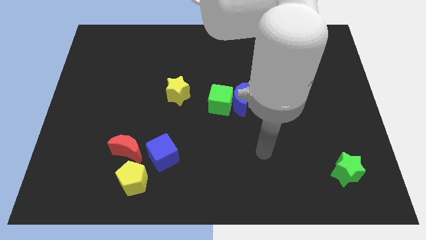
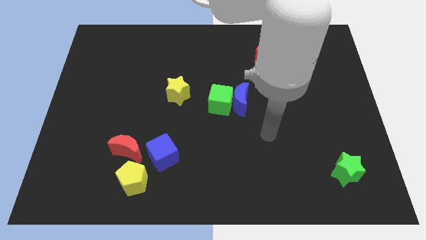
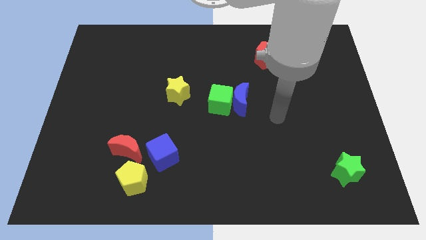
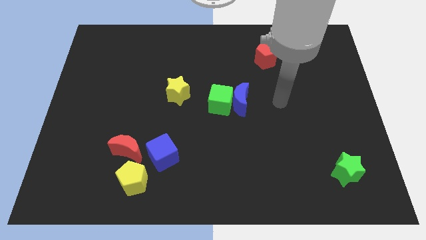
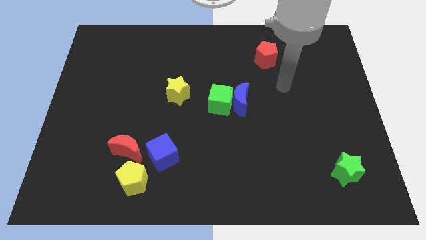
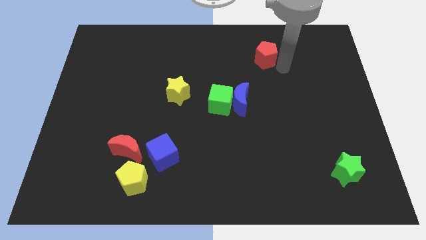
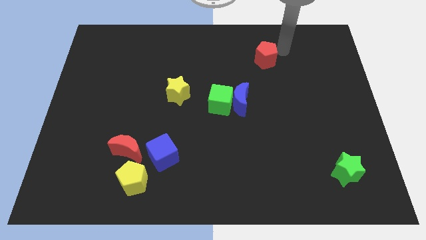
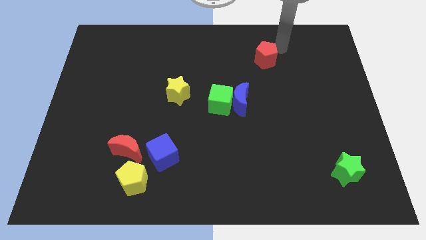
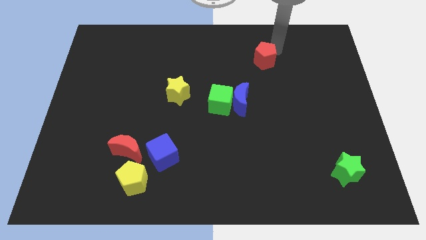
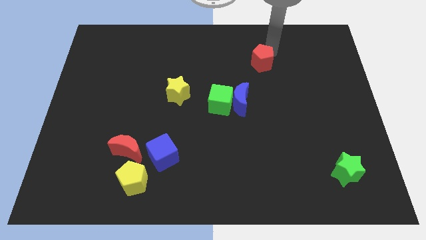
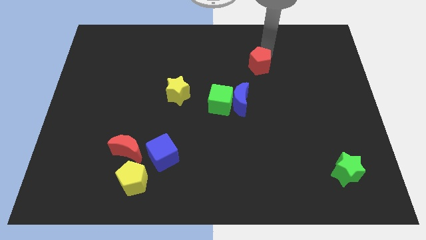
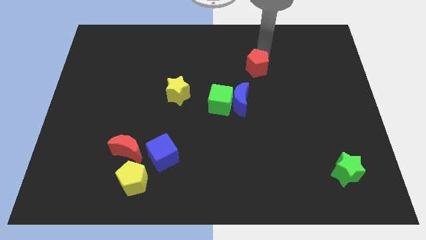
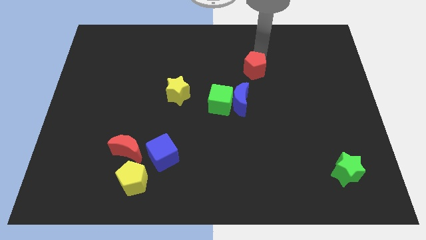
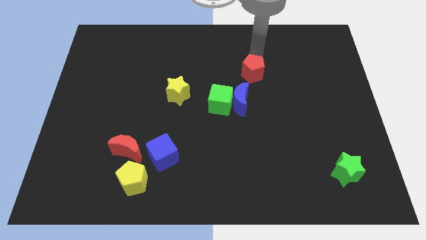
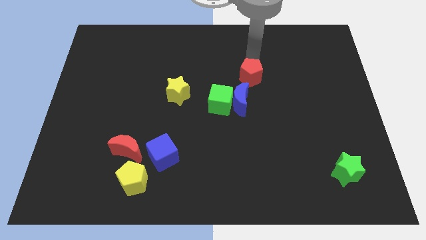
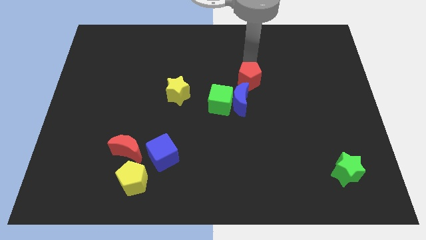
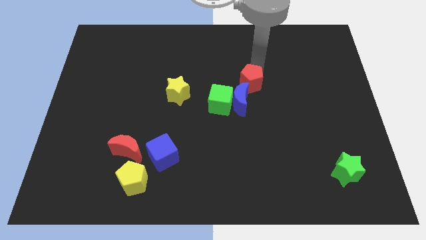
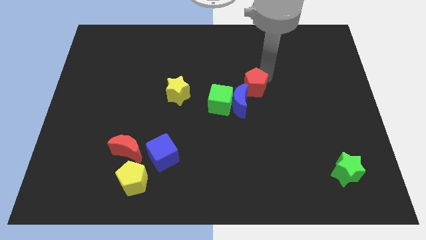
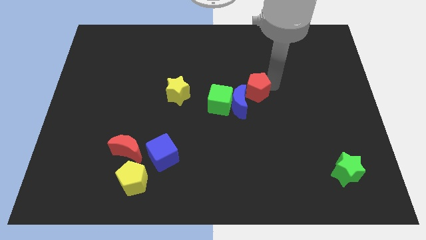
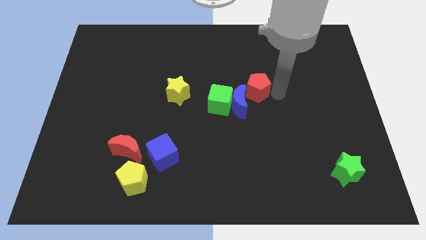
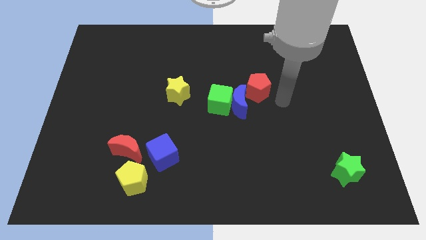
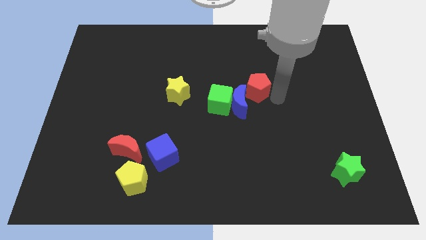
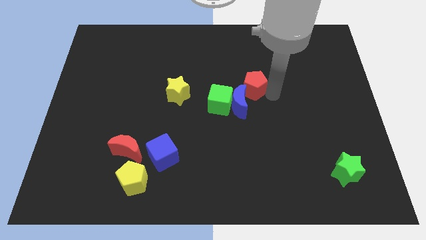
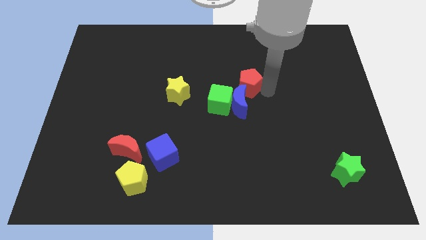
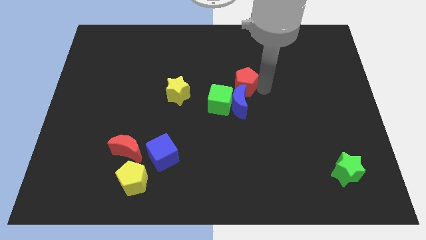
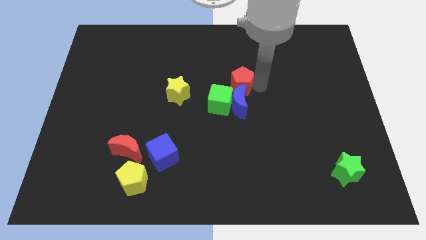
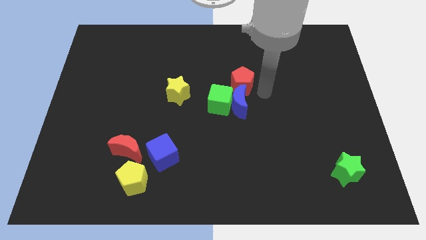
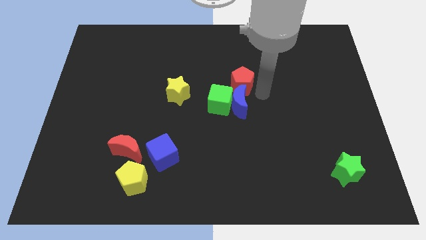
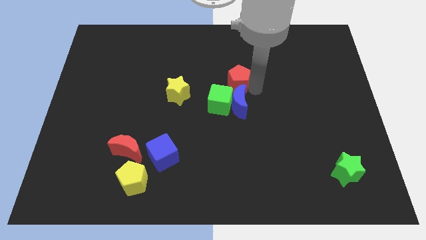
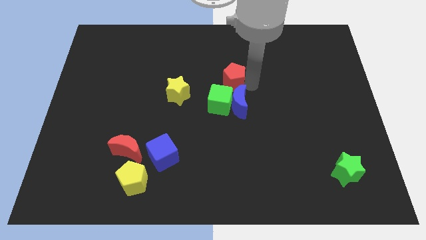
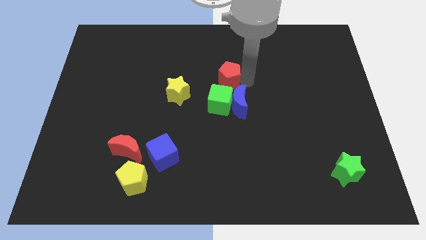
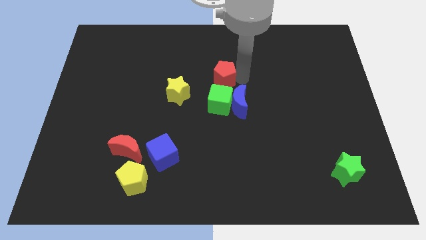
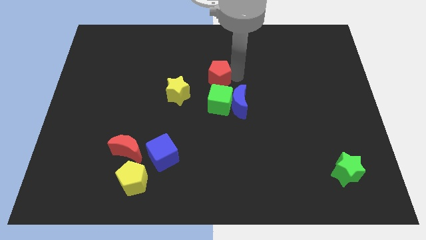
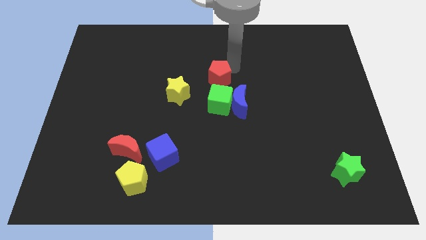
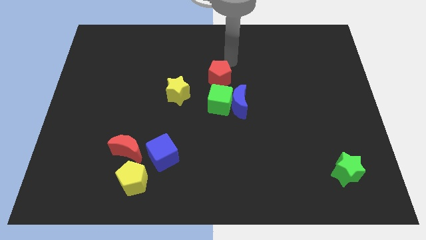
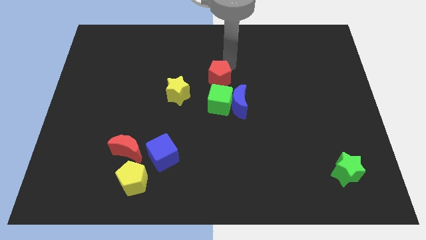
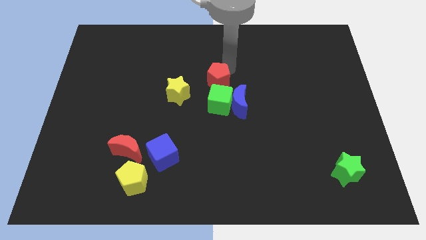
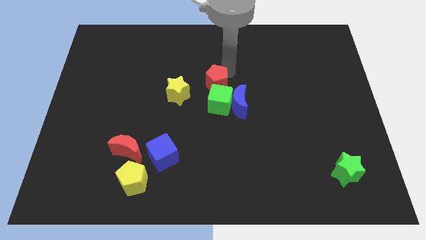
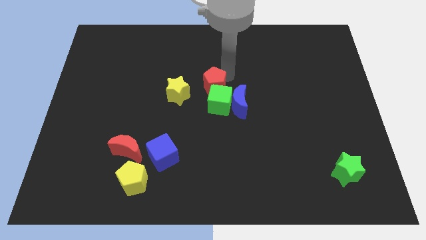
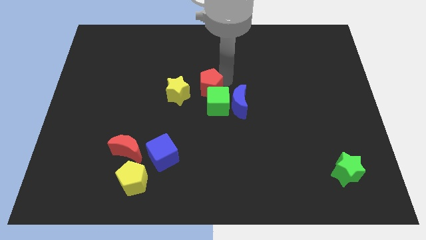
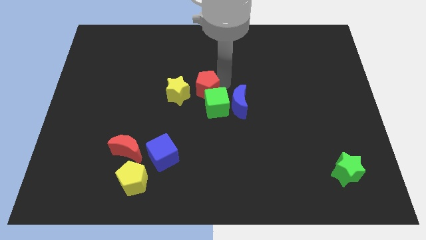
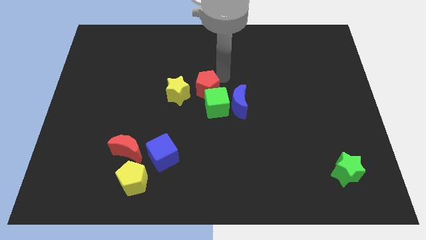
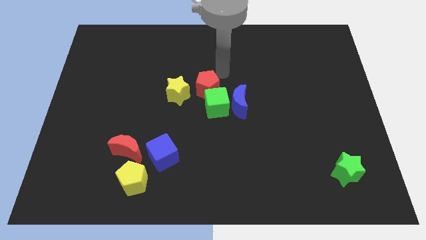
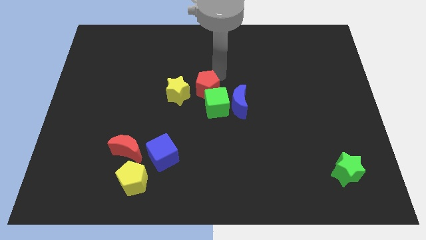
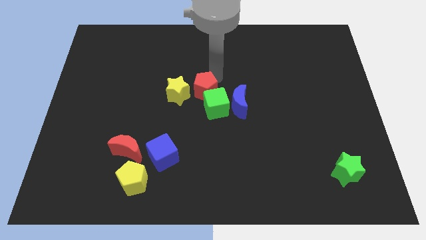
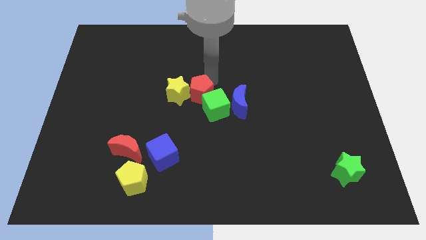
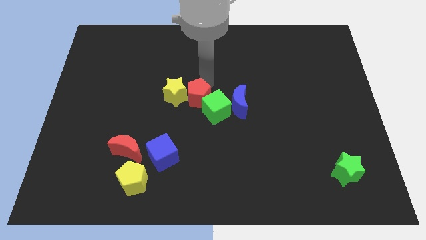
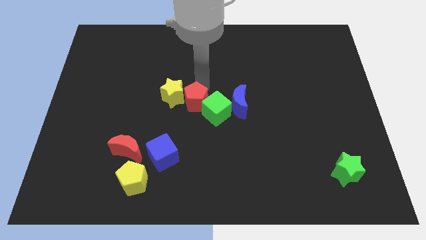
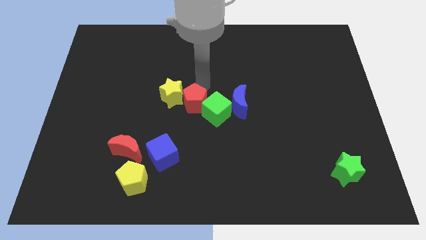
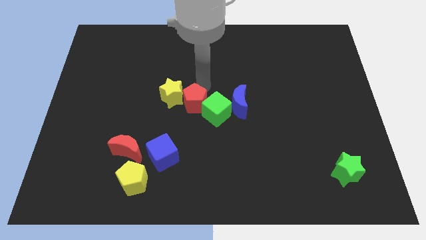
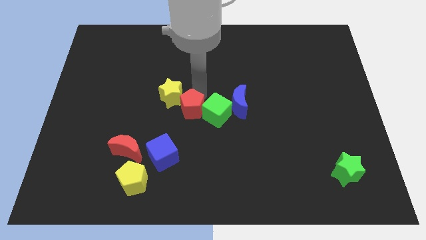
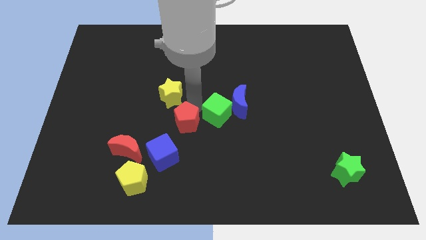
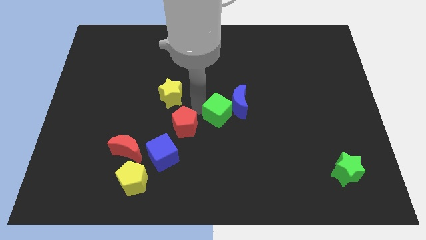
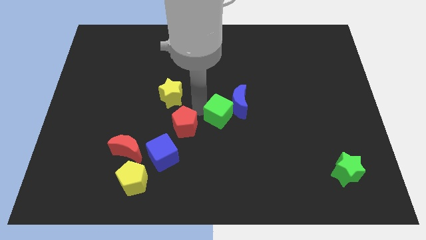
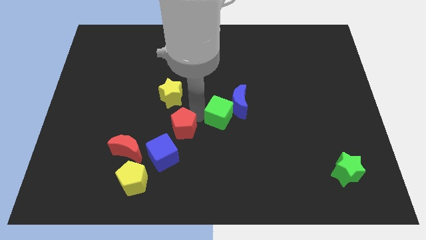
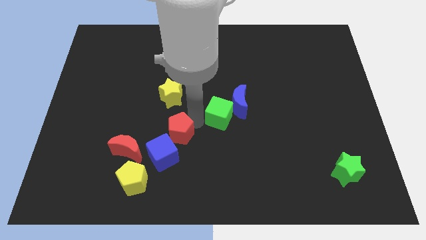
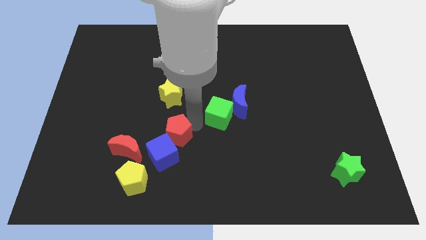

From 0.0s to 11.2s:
push the red pentagon close to the blue cube

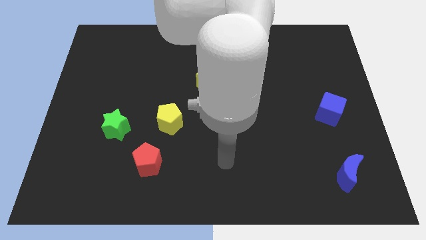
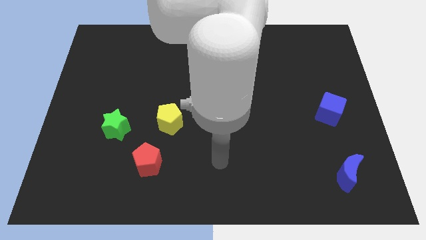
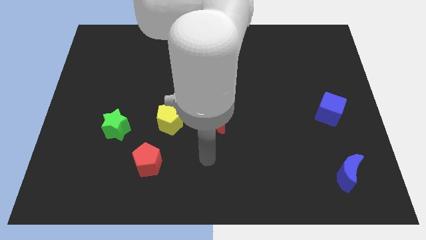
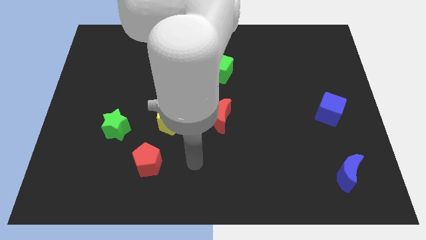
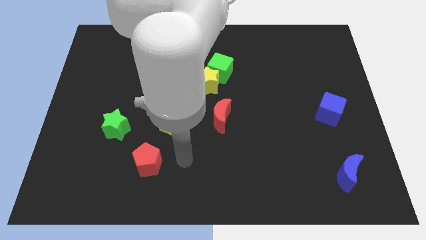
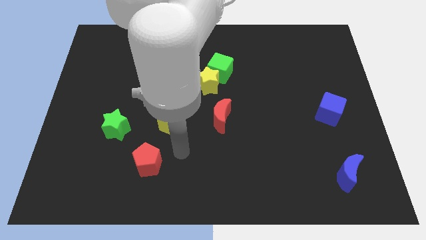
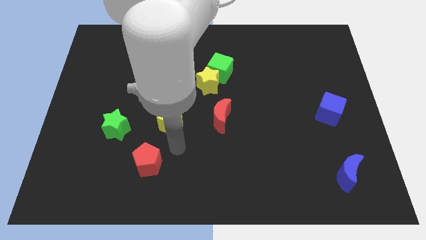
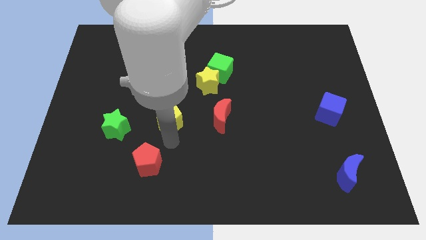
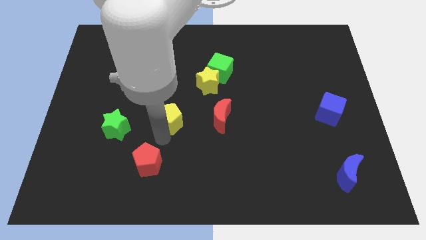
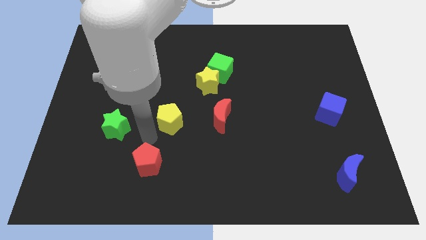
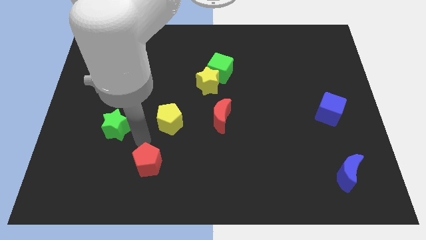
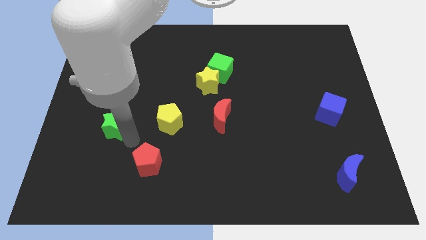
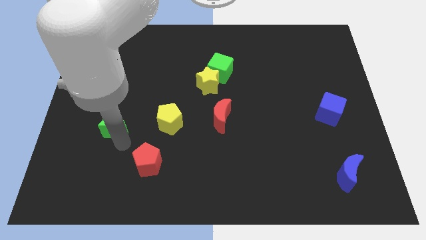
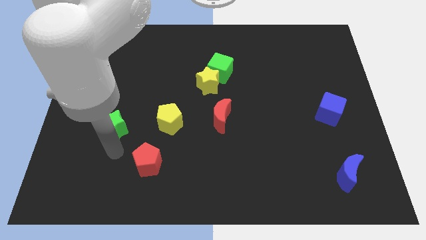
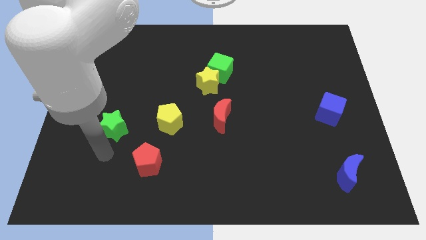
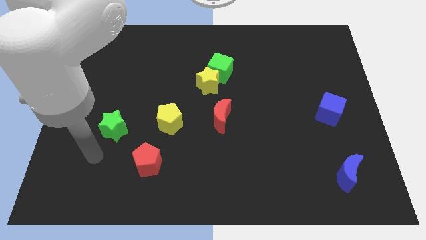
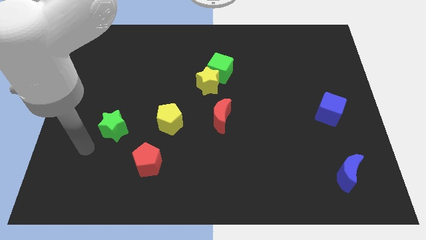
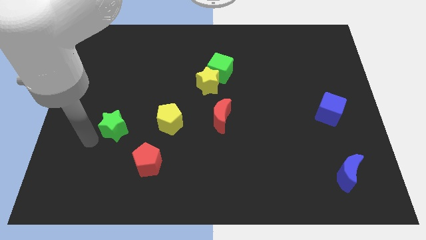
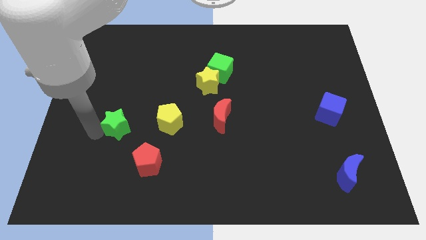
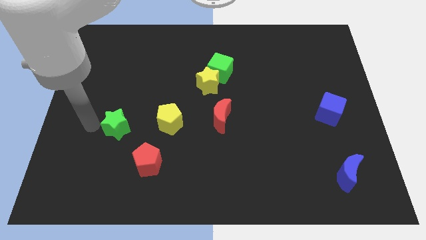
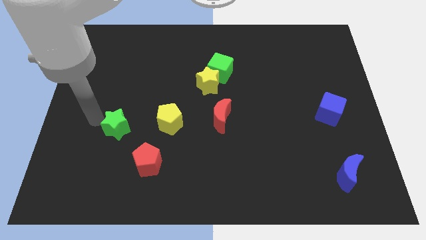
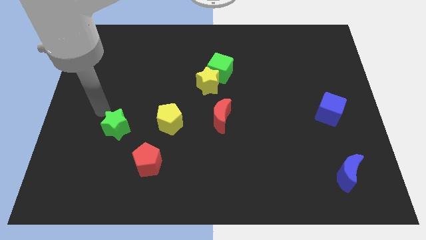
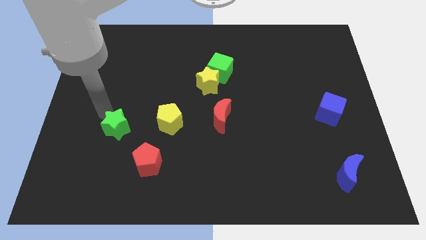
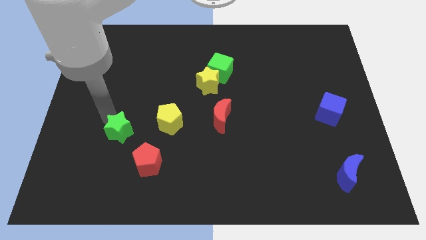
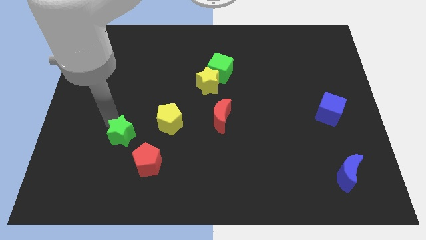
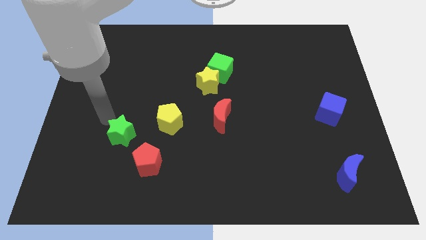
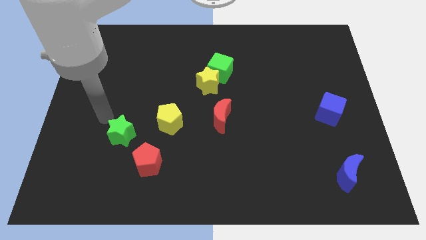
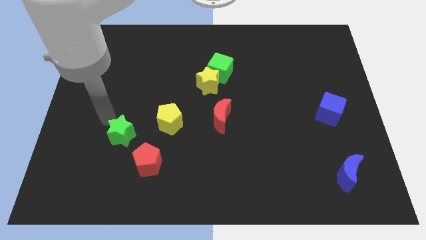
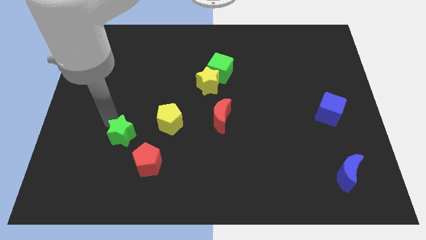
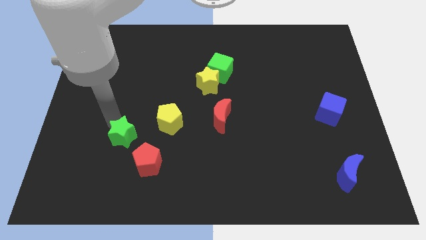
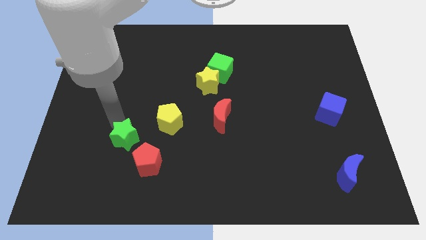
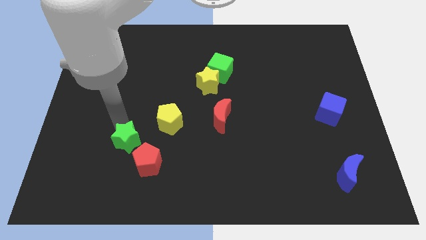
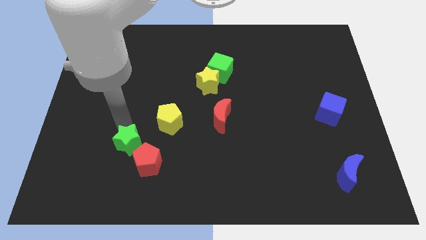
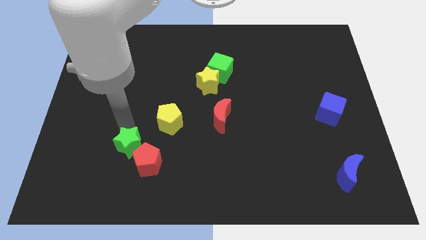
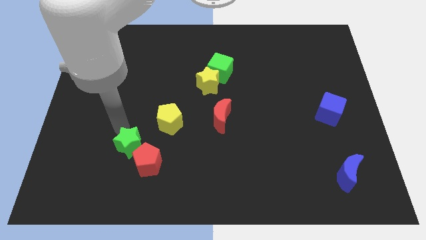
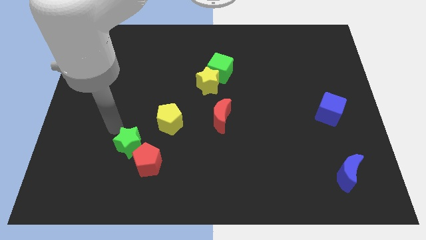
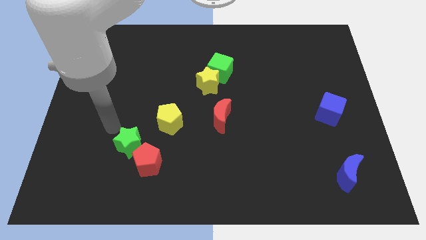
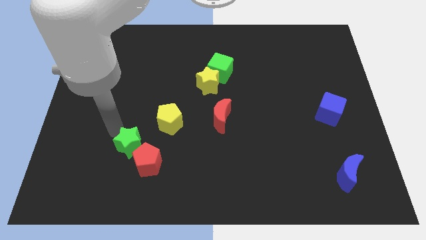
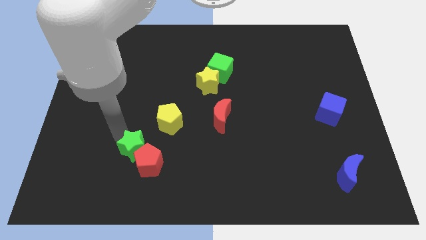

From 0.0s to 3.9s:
put the green star close to the red pentagon
